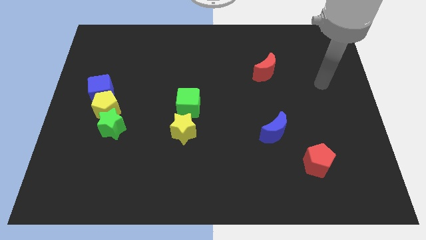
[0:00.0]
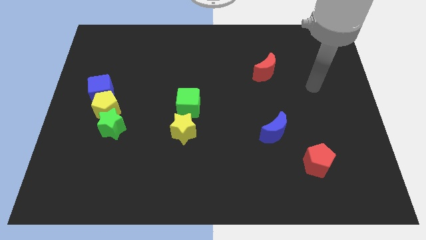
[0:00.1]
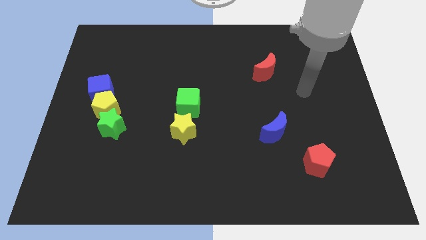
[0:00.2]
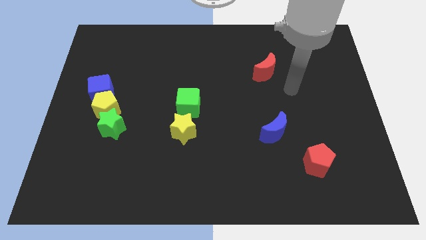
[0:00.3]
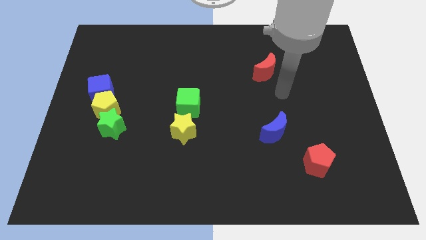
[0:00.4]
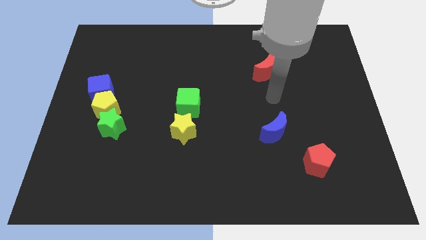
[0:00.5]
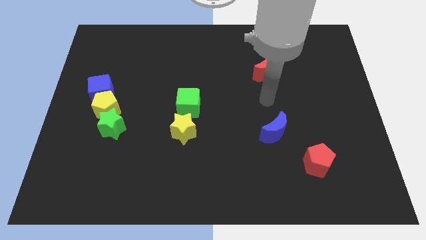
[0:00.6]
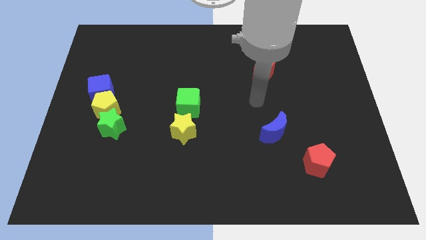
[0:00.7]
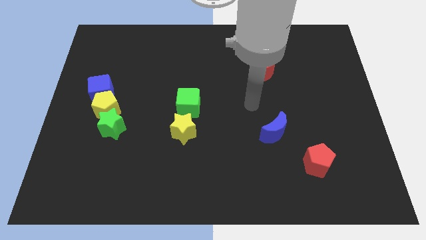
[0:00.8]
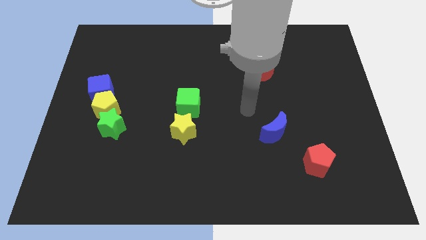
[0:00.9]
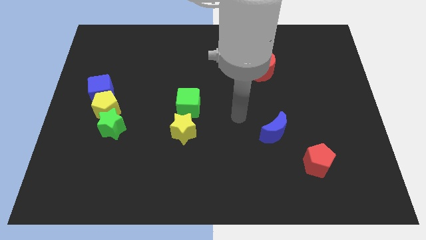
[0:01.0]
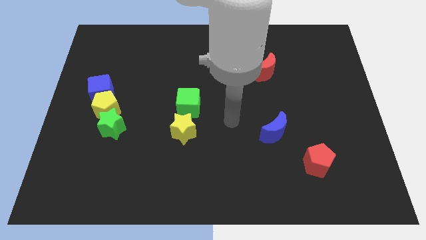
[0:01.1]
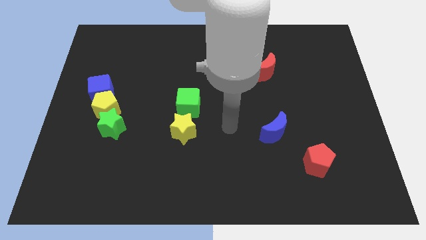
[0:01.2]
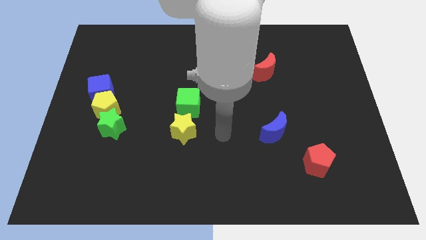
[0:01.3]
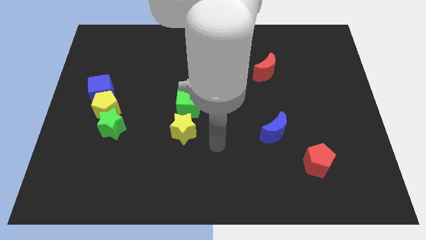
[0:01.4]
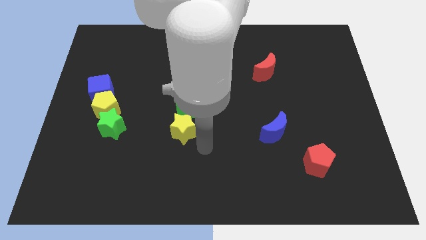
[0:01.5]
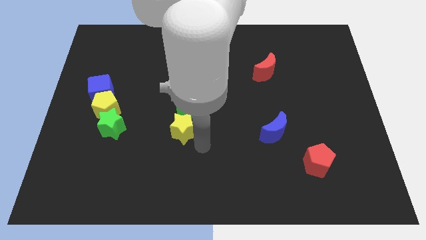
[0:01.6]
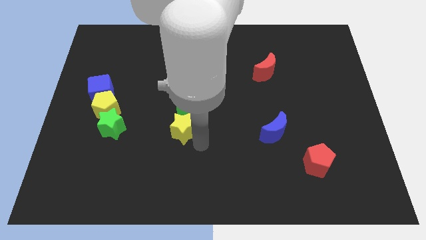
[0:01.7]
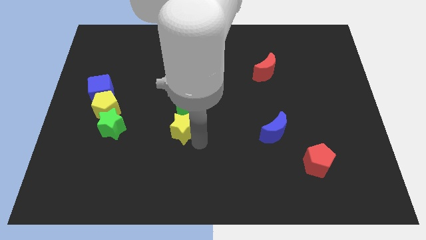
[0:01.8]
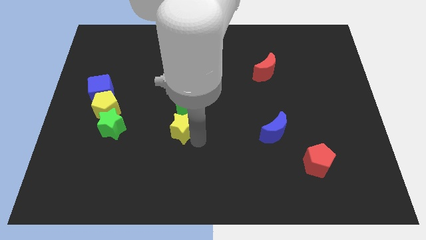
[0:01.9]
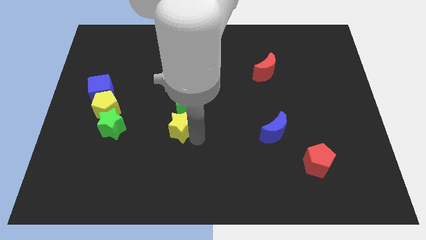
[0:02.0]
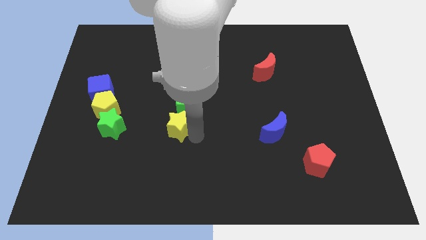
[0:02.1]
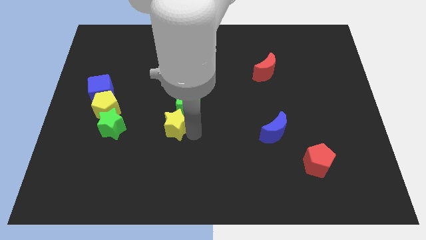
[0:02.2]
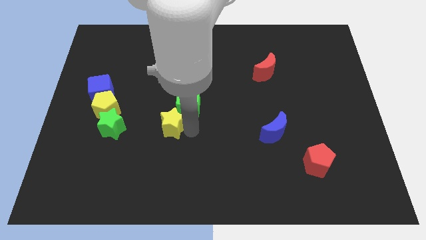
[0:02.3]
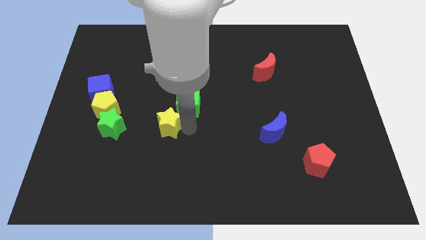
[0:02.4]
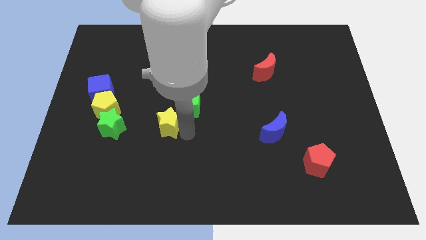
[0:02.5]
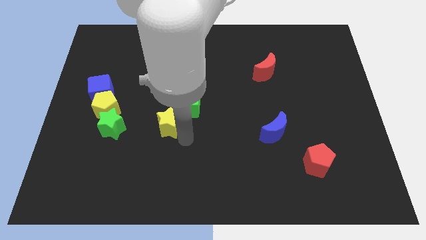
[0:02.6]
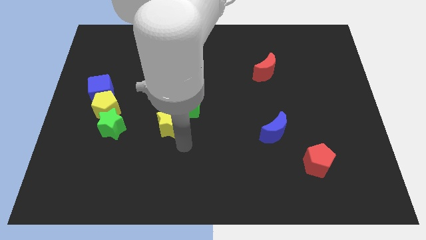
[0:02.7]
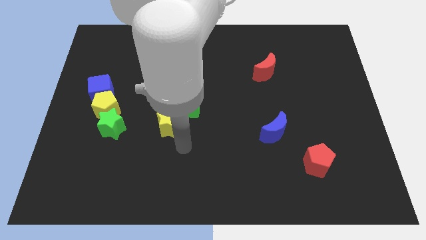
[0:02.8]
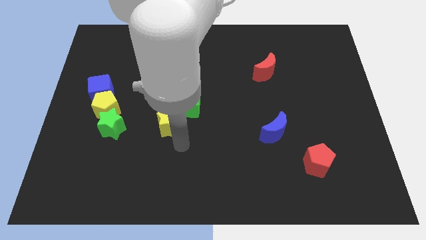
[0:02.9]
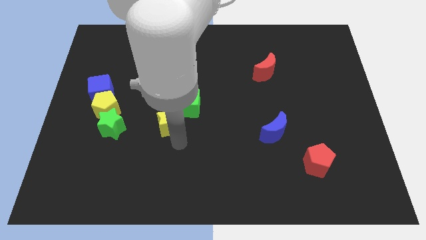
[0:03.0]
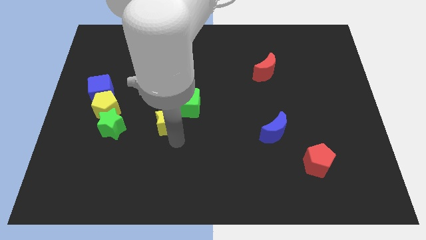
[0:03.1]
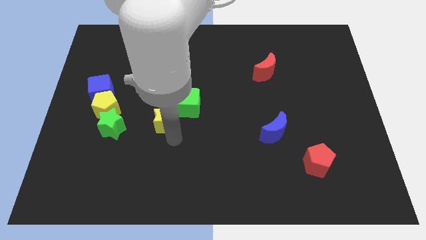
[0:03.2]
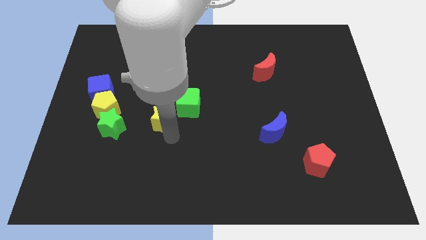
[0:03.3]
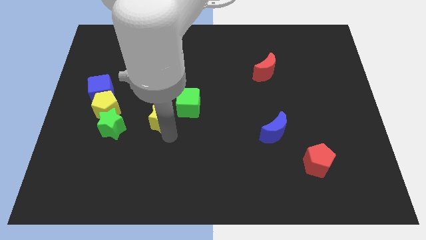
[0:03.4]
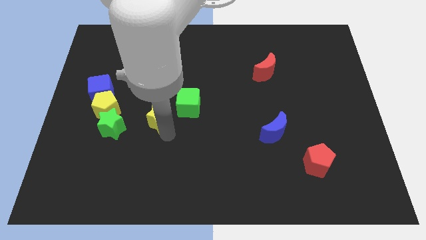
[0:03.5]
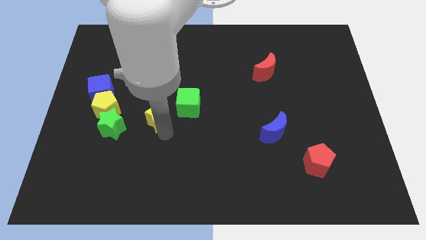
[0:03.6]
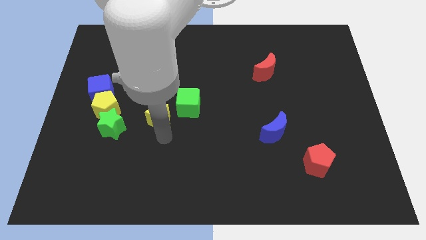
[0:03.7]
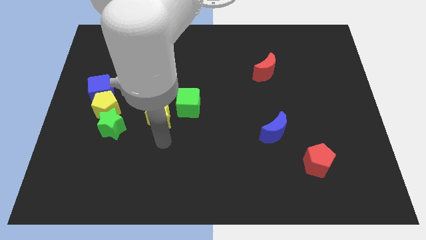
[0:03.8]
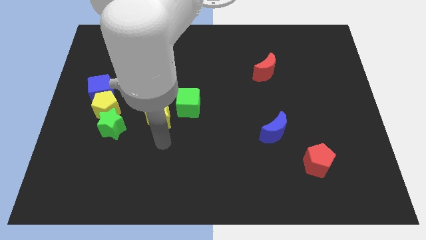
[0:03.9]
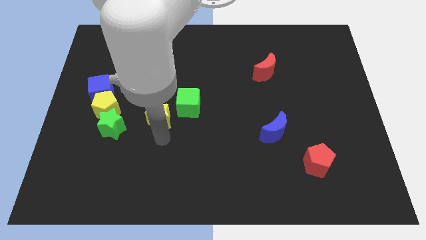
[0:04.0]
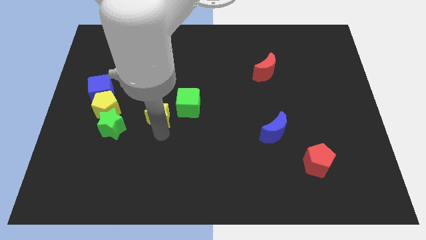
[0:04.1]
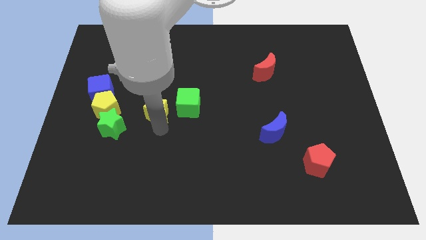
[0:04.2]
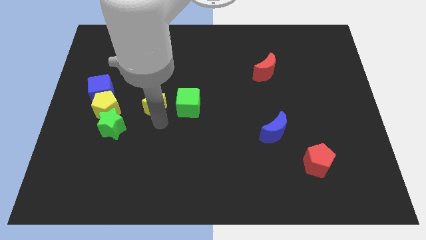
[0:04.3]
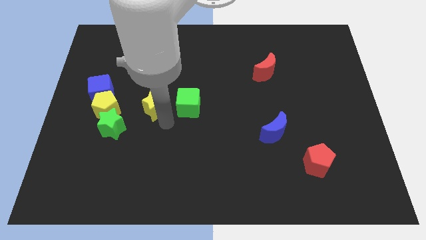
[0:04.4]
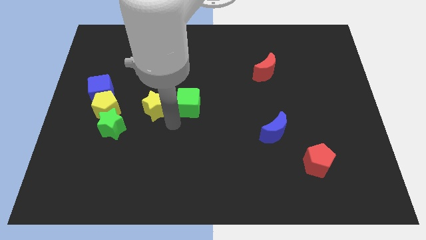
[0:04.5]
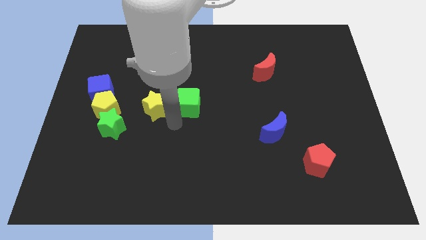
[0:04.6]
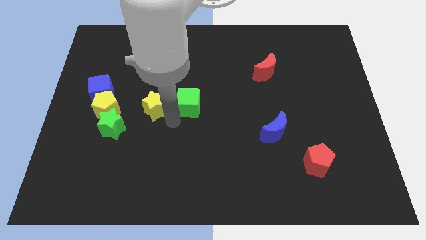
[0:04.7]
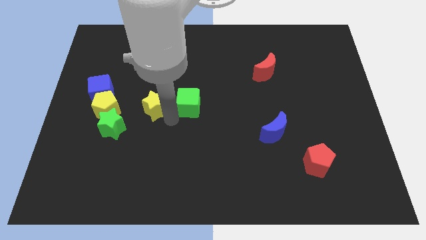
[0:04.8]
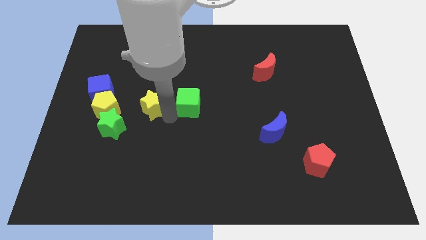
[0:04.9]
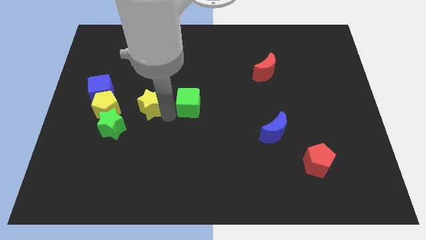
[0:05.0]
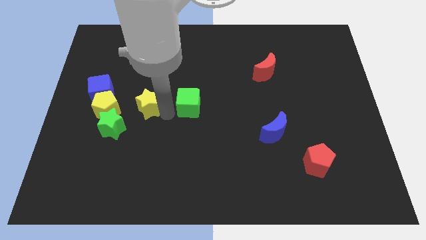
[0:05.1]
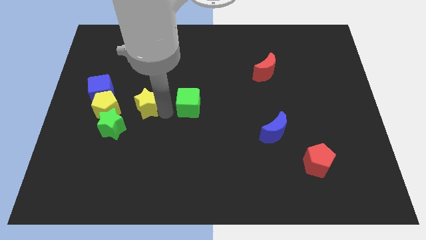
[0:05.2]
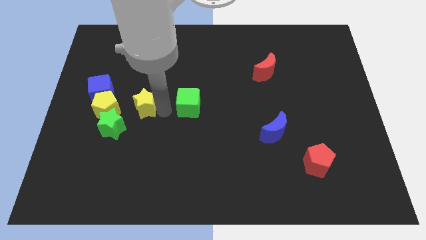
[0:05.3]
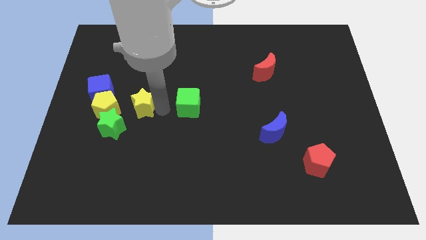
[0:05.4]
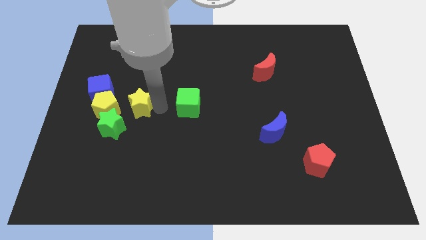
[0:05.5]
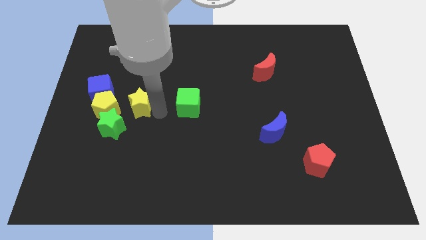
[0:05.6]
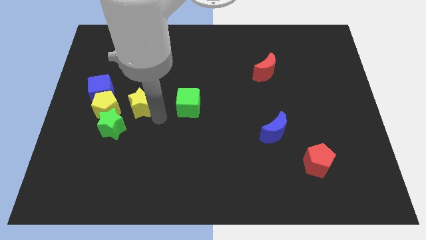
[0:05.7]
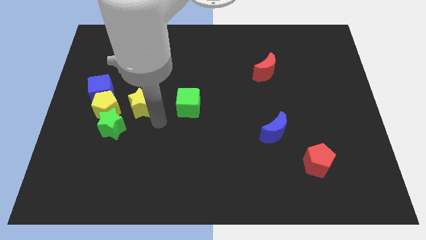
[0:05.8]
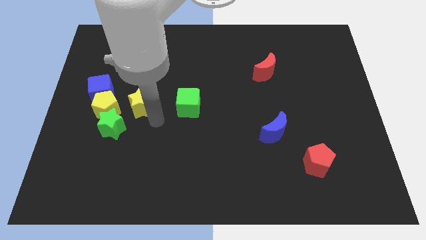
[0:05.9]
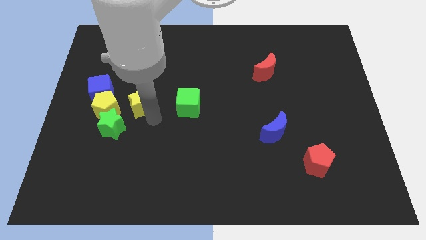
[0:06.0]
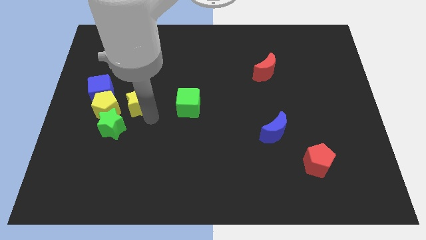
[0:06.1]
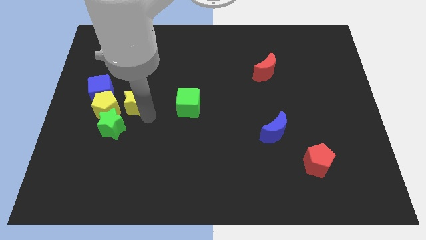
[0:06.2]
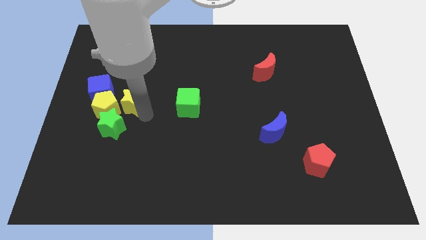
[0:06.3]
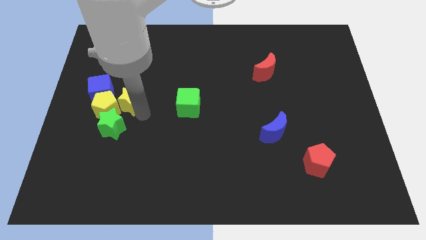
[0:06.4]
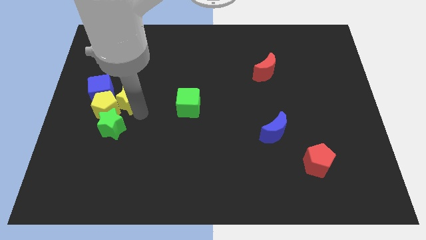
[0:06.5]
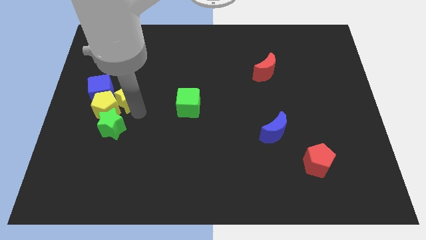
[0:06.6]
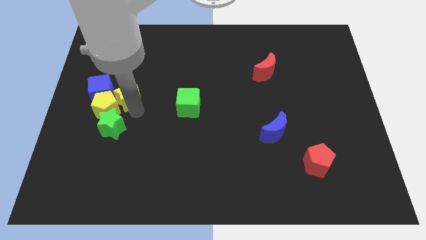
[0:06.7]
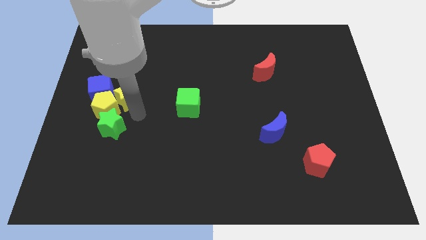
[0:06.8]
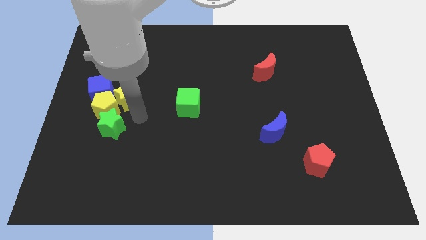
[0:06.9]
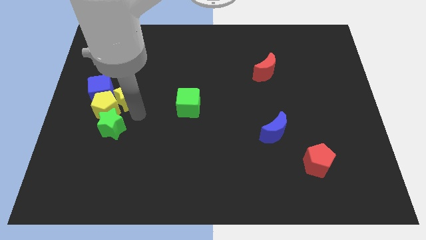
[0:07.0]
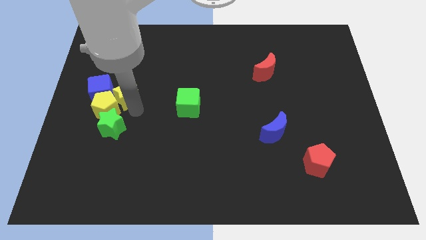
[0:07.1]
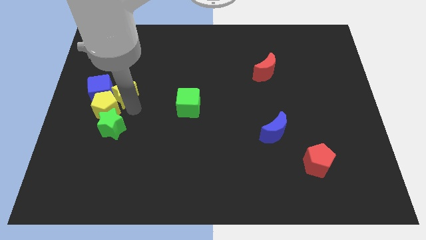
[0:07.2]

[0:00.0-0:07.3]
move the yellow star to the blue cube
